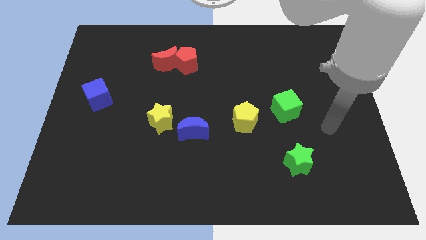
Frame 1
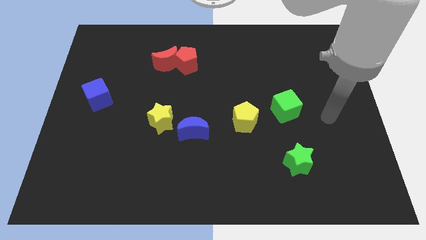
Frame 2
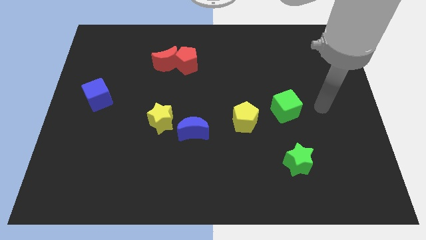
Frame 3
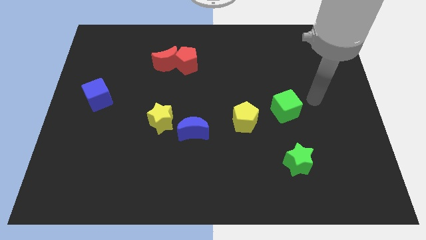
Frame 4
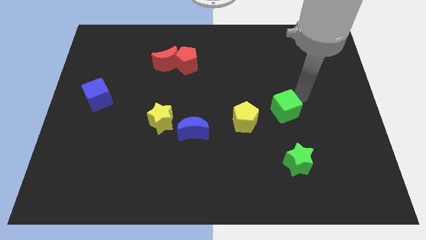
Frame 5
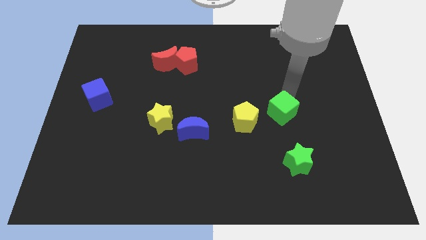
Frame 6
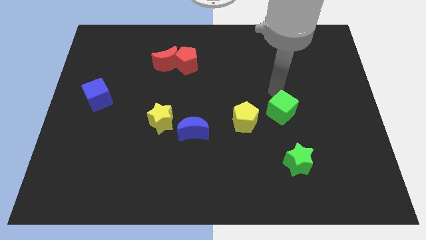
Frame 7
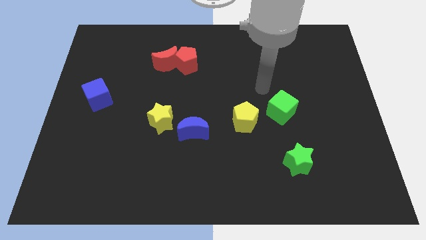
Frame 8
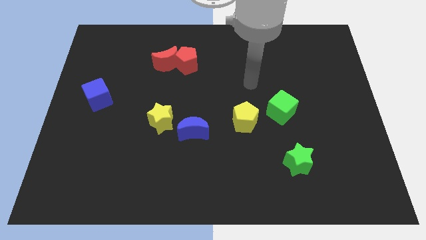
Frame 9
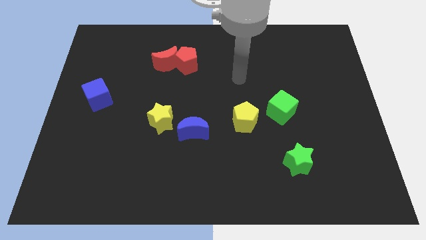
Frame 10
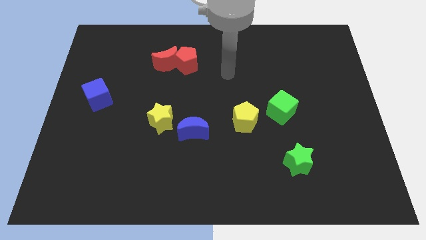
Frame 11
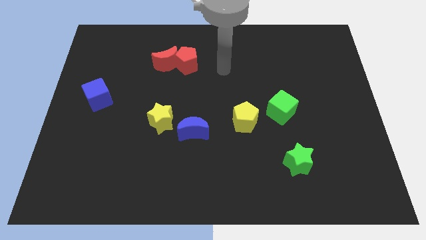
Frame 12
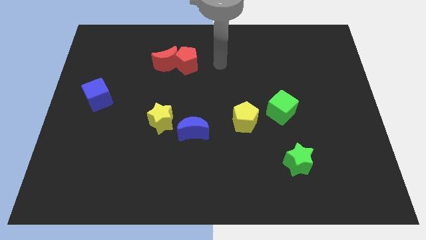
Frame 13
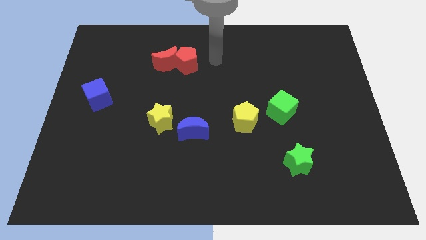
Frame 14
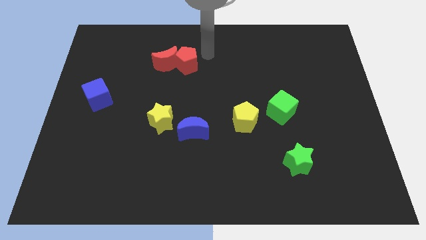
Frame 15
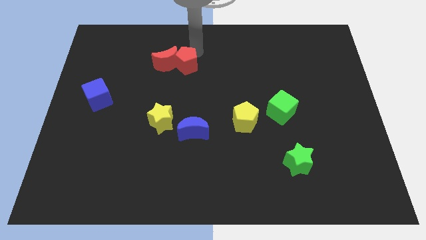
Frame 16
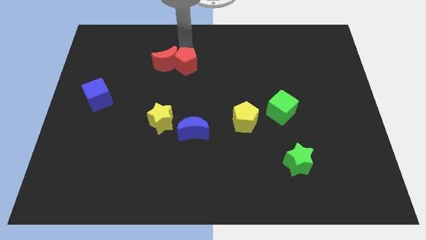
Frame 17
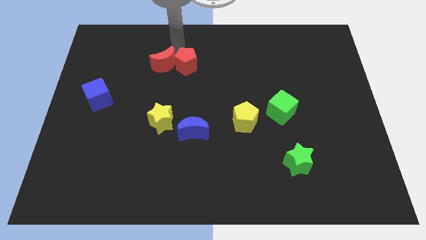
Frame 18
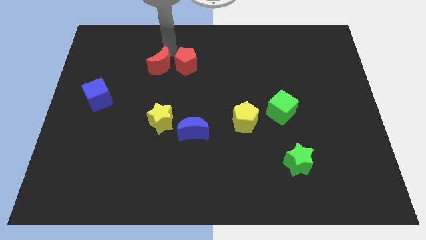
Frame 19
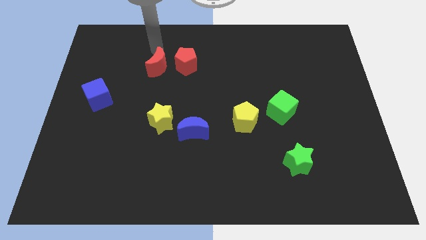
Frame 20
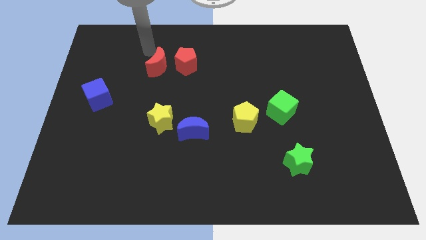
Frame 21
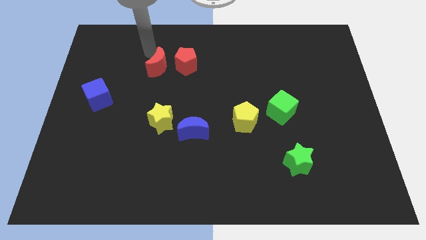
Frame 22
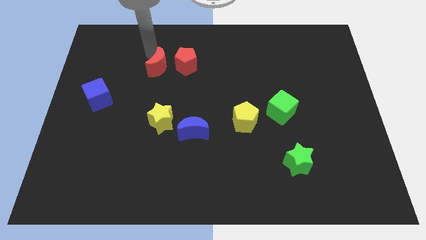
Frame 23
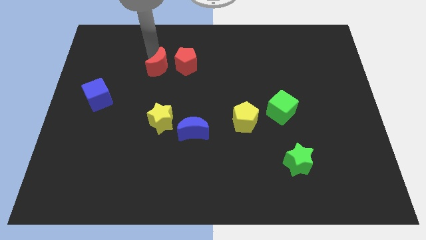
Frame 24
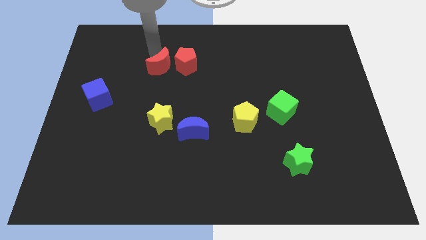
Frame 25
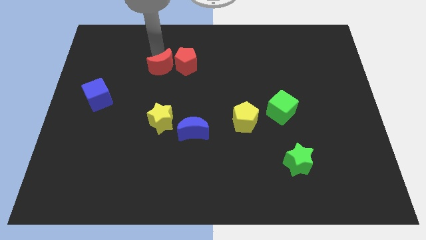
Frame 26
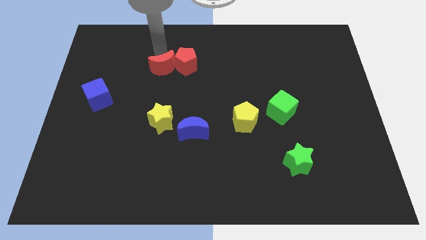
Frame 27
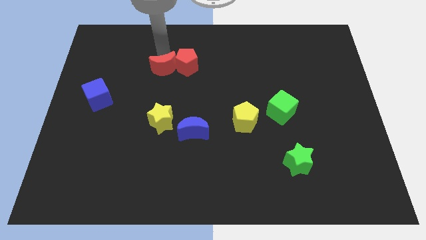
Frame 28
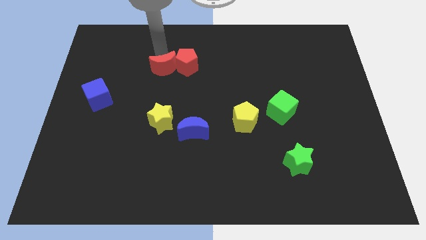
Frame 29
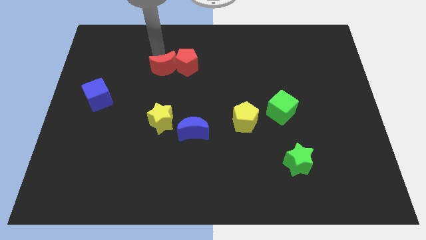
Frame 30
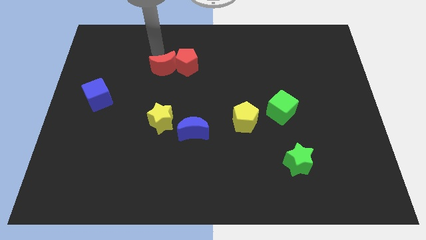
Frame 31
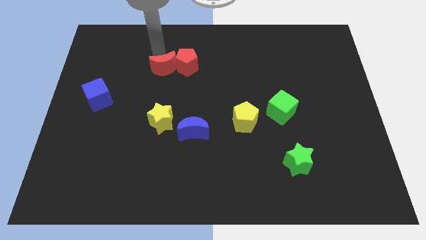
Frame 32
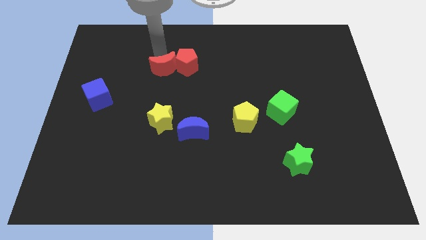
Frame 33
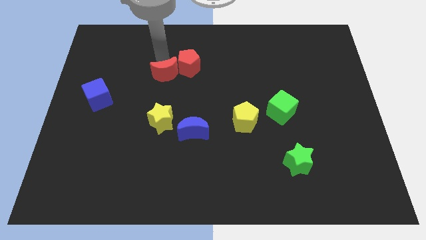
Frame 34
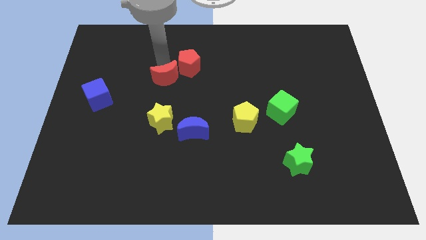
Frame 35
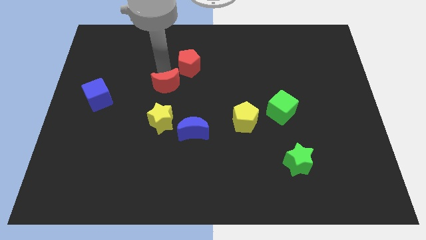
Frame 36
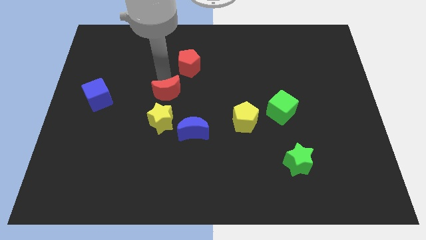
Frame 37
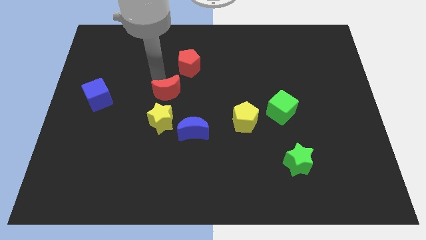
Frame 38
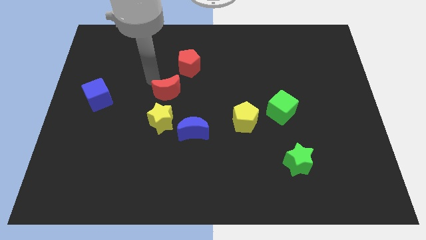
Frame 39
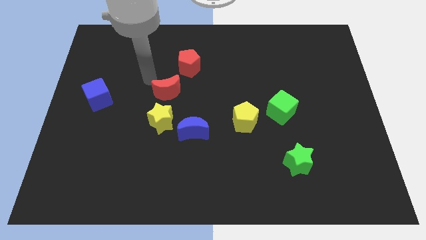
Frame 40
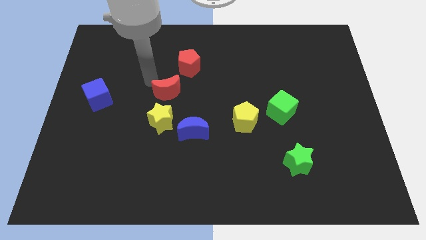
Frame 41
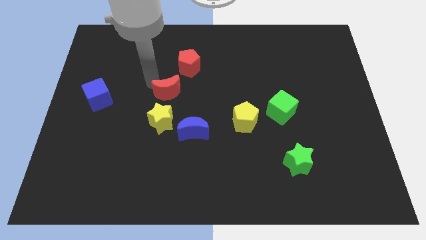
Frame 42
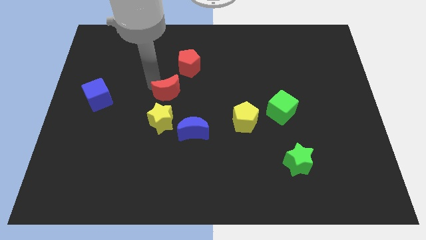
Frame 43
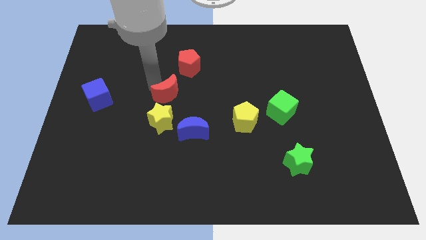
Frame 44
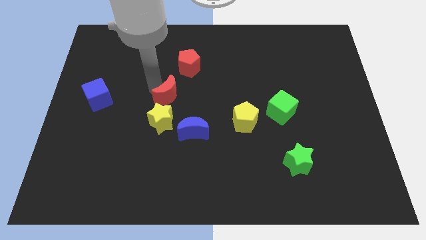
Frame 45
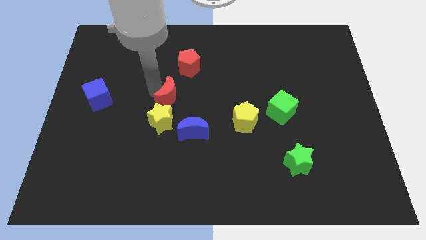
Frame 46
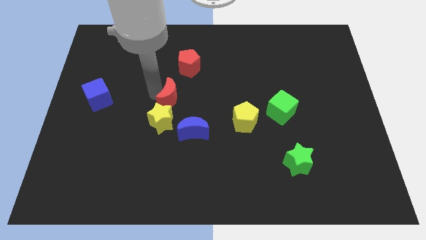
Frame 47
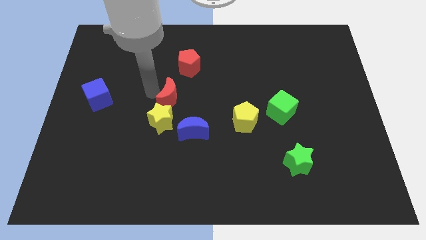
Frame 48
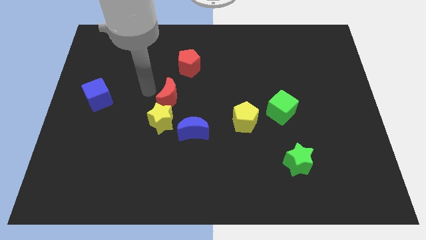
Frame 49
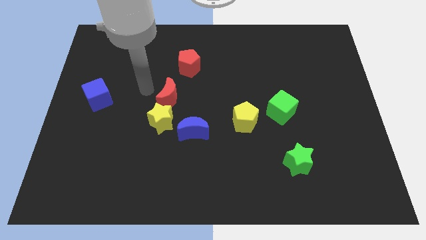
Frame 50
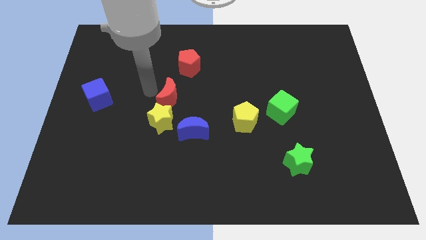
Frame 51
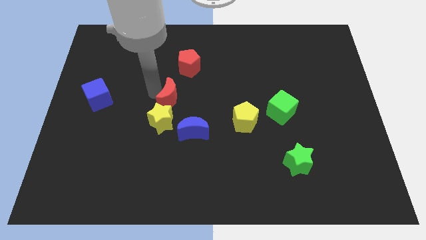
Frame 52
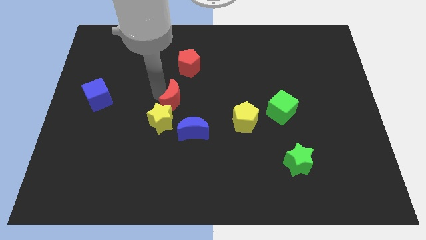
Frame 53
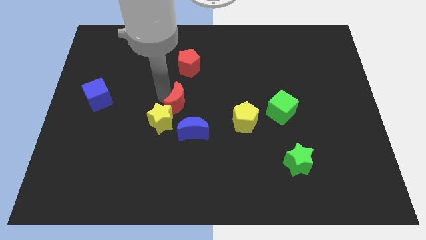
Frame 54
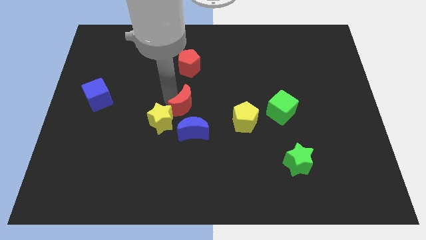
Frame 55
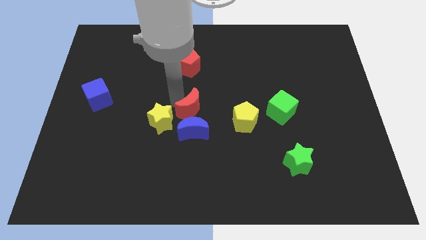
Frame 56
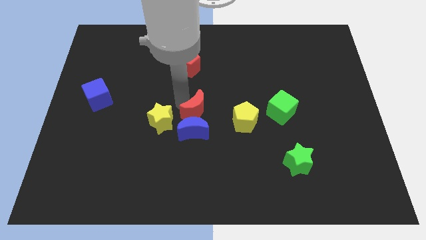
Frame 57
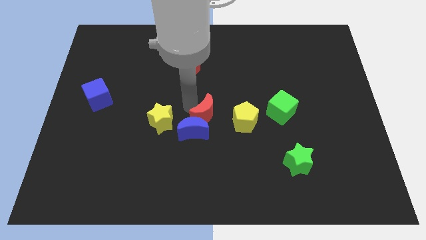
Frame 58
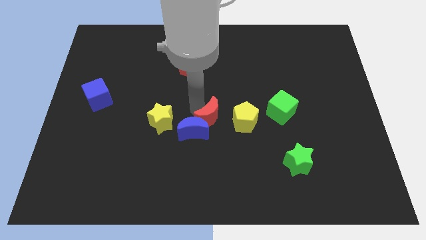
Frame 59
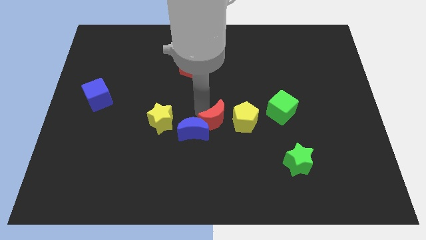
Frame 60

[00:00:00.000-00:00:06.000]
slide the red moon downwards and to the right

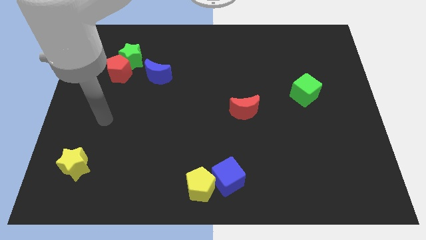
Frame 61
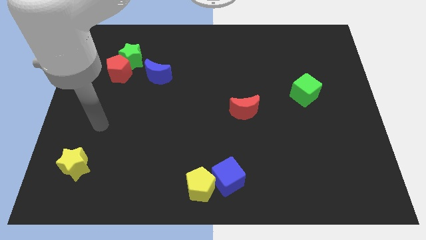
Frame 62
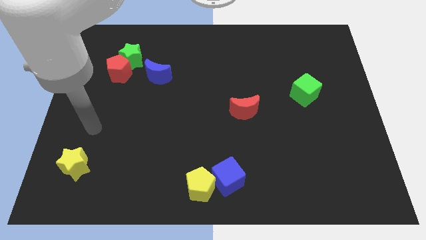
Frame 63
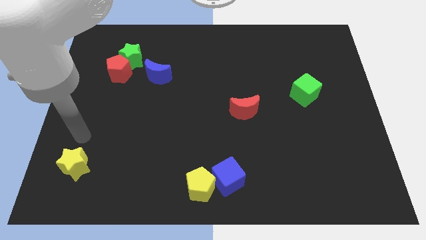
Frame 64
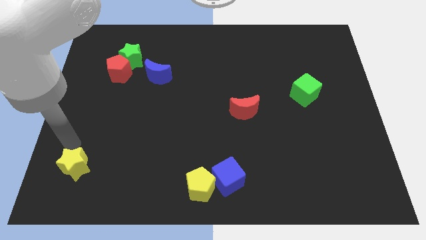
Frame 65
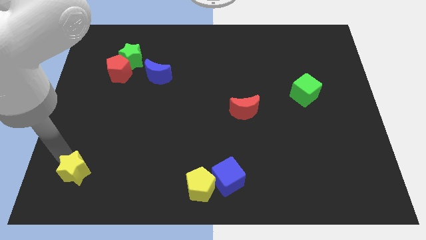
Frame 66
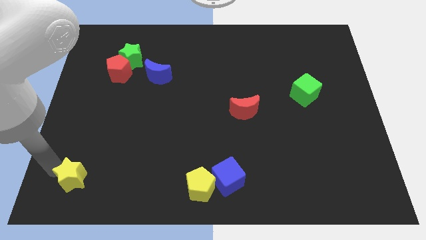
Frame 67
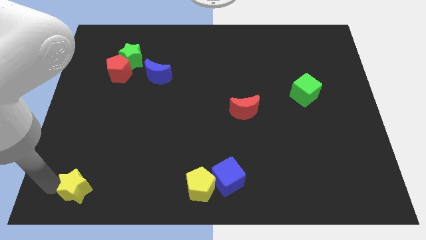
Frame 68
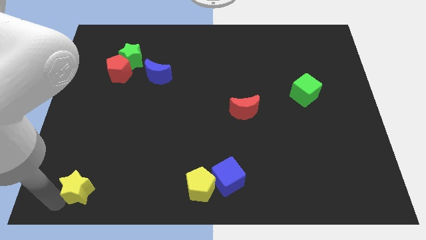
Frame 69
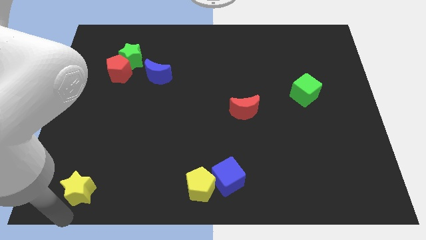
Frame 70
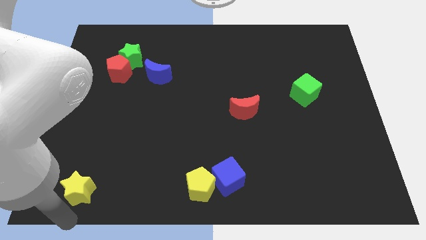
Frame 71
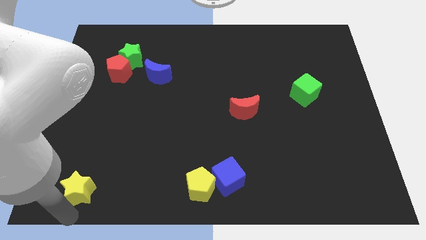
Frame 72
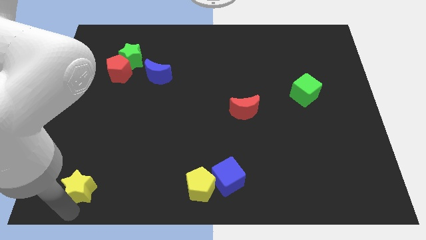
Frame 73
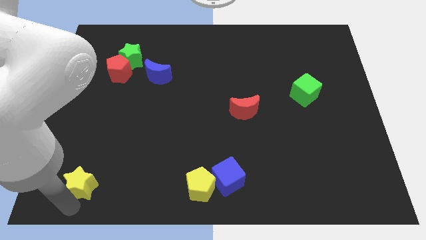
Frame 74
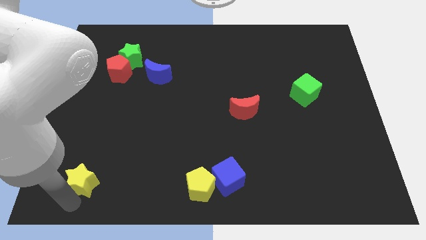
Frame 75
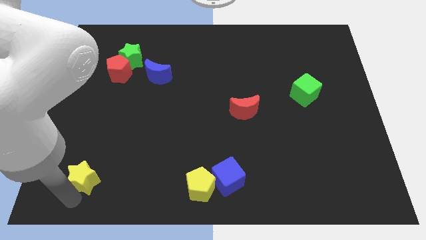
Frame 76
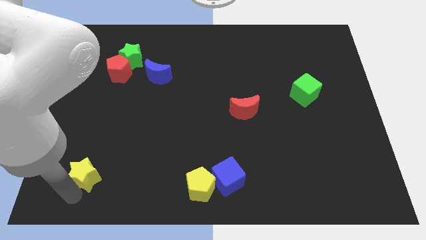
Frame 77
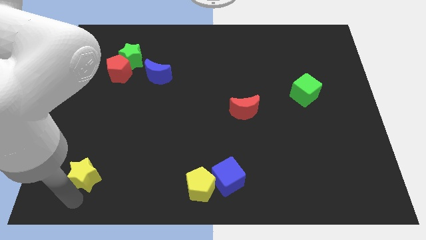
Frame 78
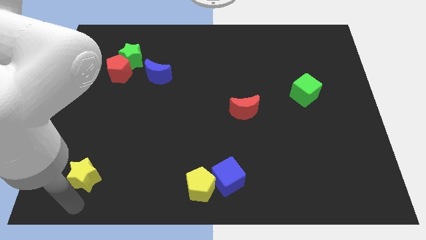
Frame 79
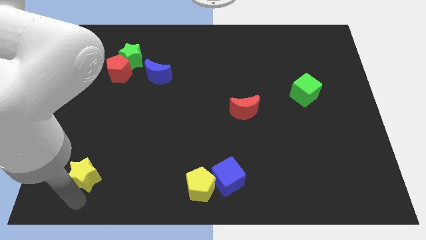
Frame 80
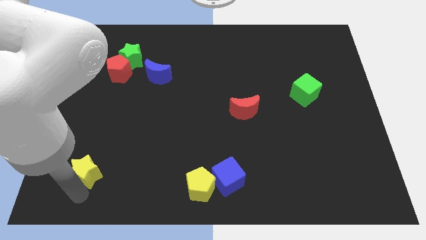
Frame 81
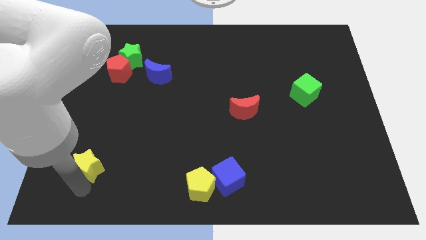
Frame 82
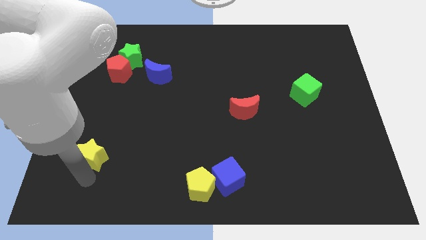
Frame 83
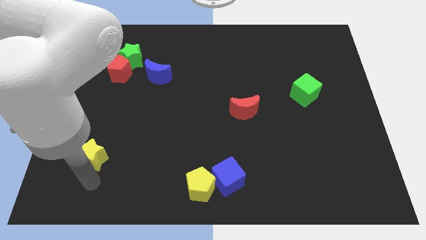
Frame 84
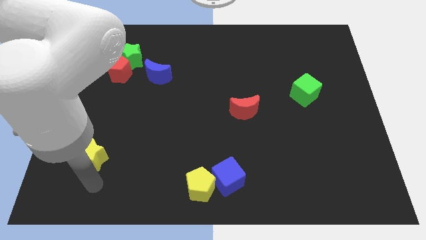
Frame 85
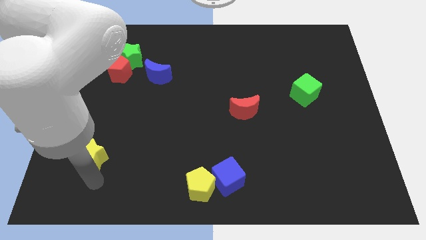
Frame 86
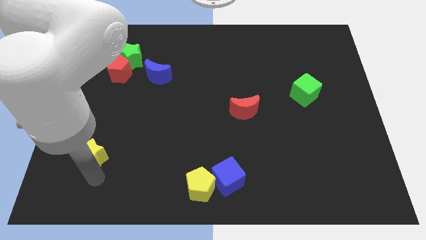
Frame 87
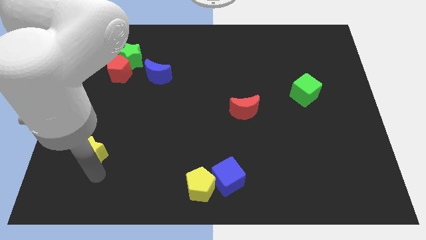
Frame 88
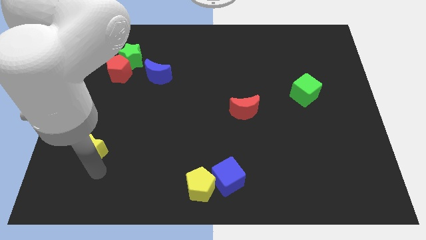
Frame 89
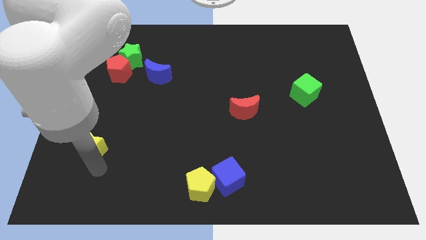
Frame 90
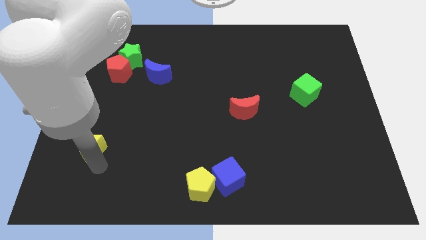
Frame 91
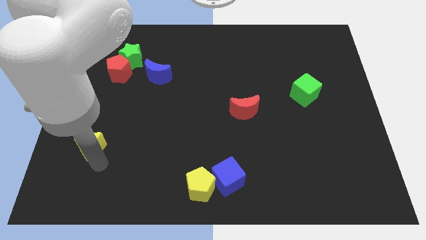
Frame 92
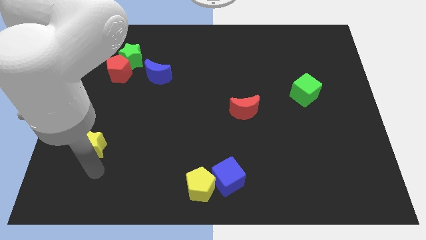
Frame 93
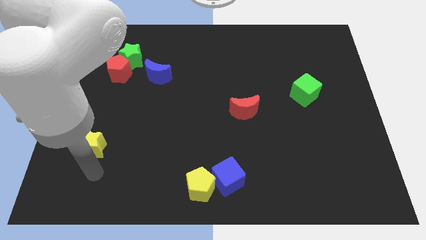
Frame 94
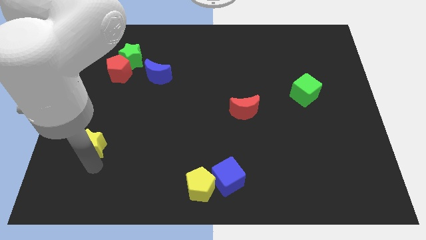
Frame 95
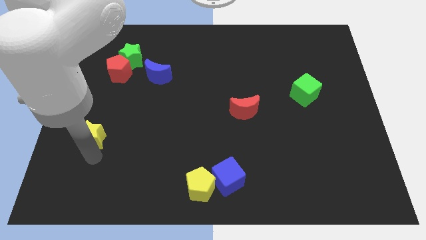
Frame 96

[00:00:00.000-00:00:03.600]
push the yellow star up a bit
